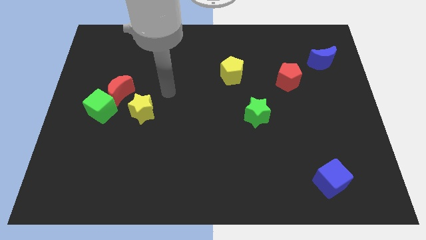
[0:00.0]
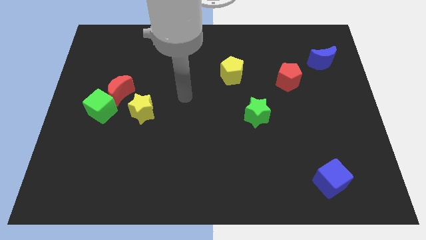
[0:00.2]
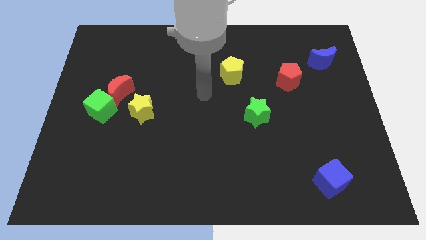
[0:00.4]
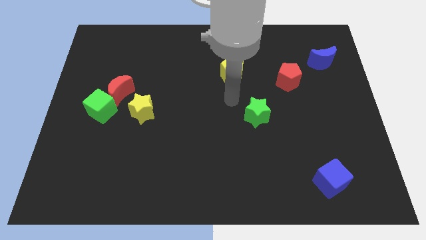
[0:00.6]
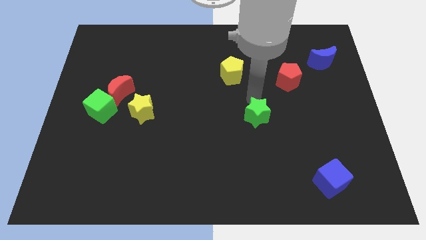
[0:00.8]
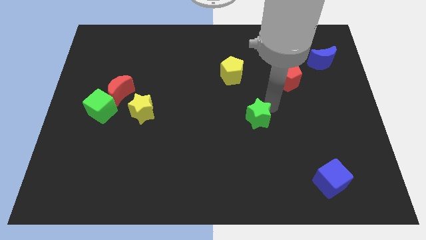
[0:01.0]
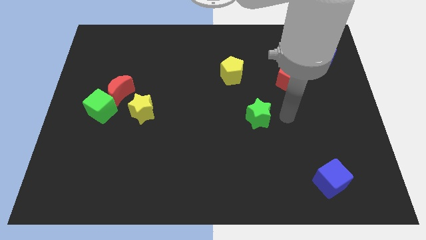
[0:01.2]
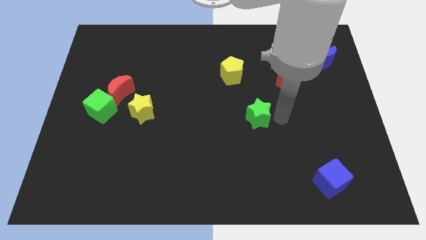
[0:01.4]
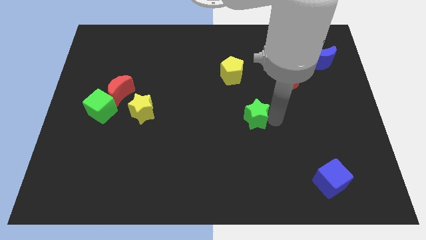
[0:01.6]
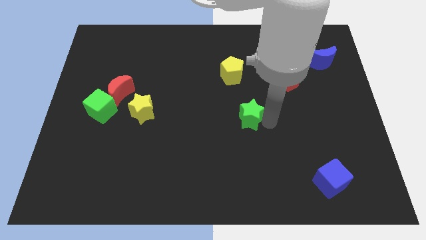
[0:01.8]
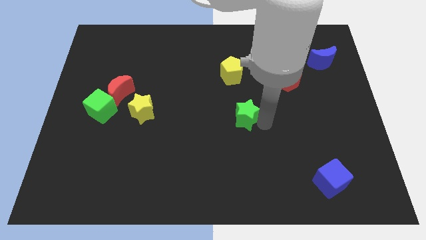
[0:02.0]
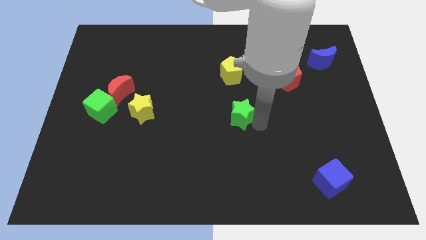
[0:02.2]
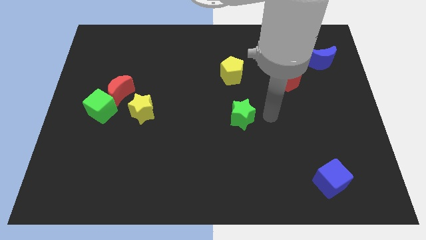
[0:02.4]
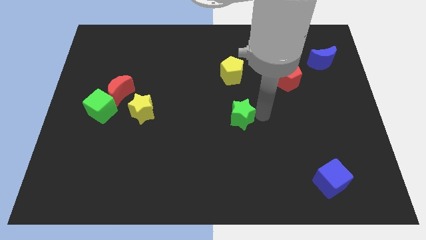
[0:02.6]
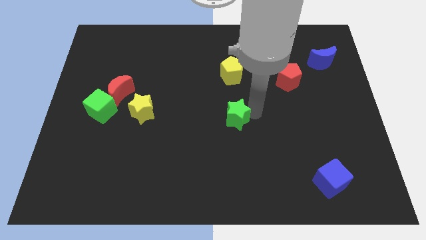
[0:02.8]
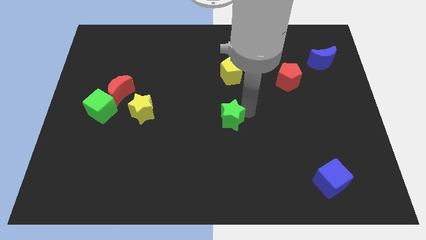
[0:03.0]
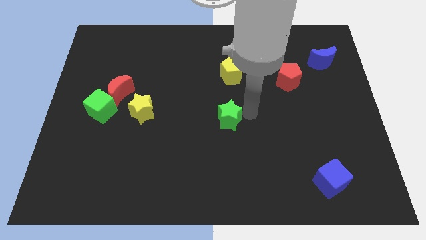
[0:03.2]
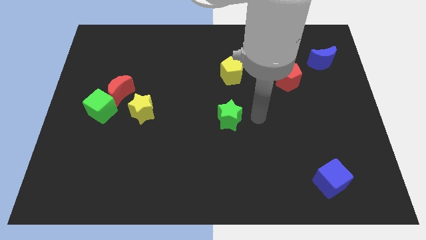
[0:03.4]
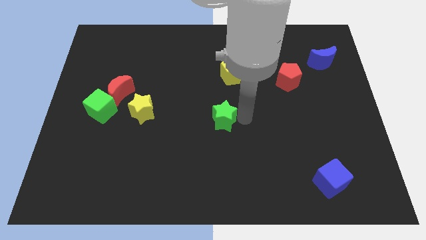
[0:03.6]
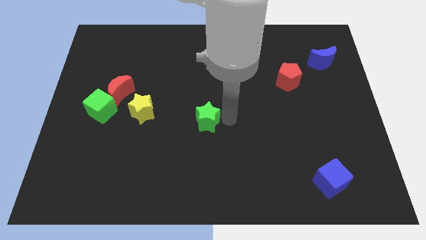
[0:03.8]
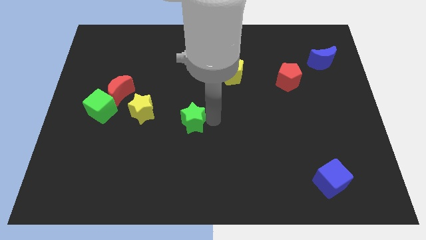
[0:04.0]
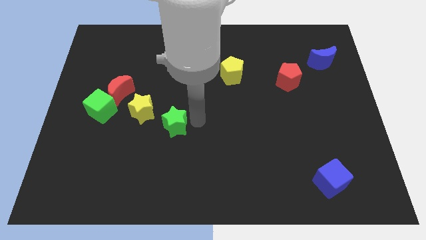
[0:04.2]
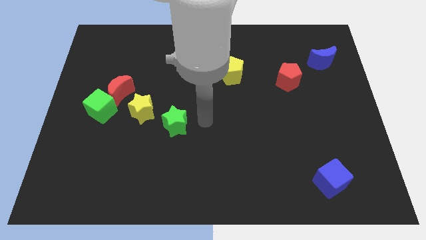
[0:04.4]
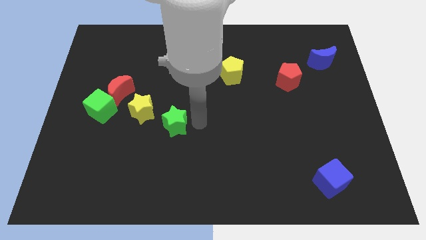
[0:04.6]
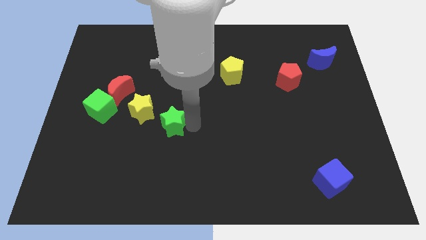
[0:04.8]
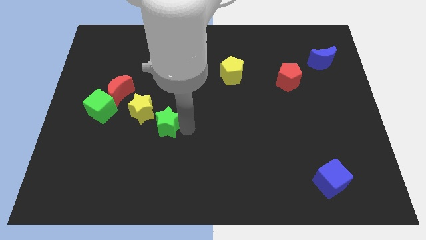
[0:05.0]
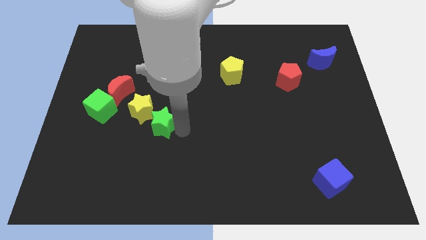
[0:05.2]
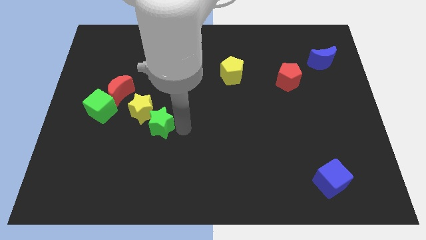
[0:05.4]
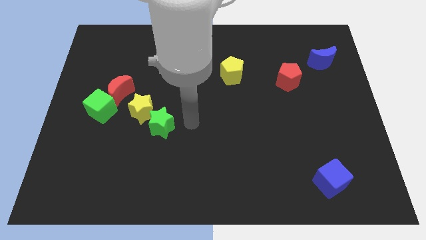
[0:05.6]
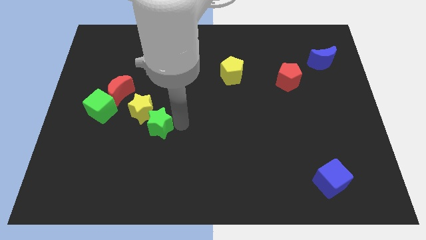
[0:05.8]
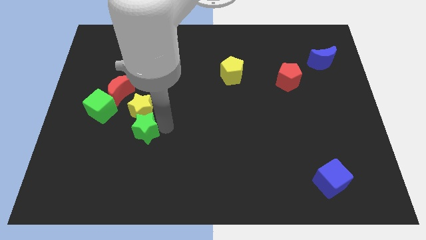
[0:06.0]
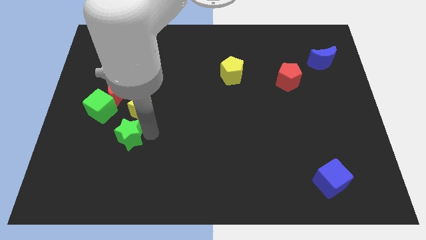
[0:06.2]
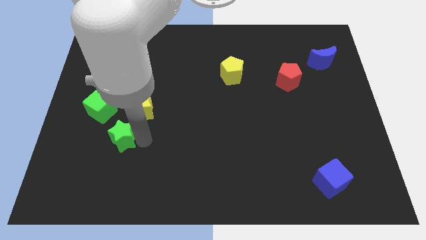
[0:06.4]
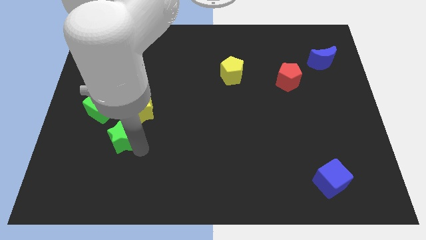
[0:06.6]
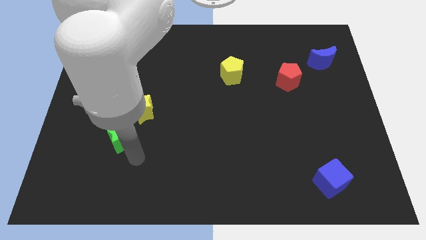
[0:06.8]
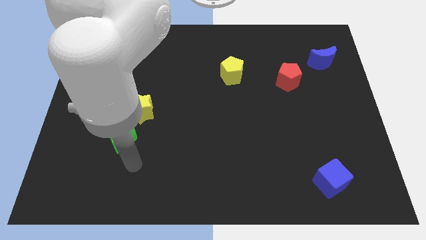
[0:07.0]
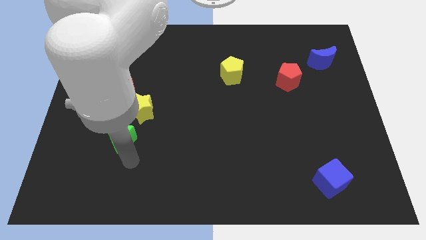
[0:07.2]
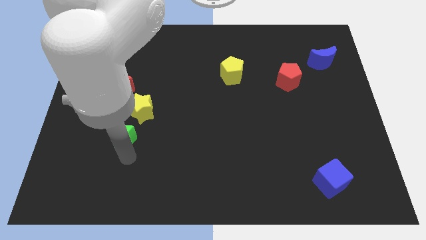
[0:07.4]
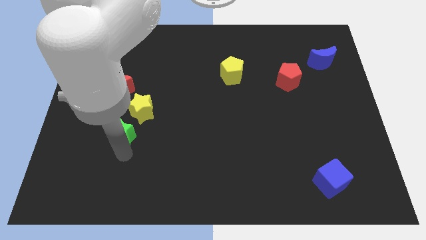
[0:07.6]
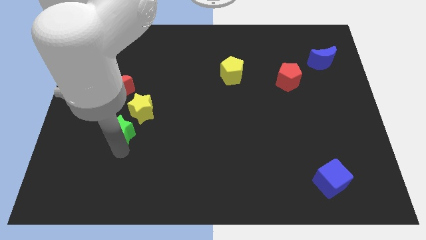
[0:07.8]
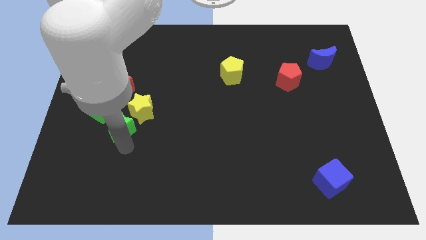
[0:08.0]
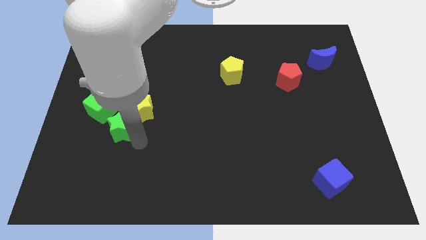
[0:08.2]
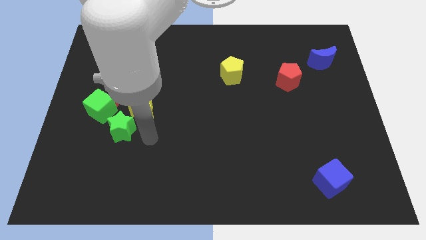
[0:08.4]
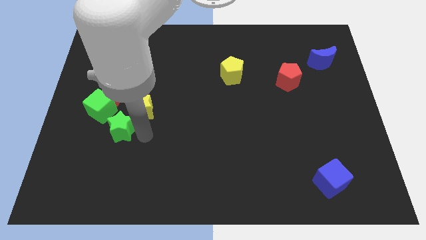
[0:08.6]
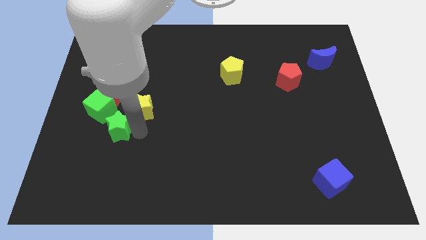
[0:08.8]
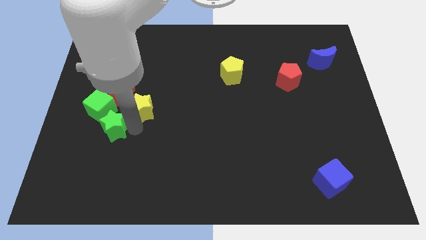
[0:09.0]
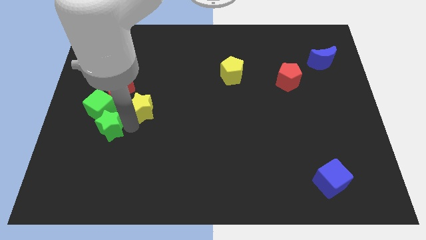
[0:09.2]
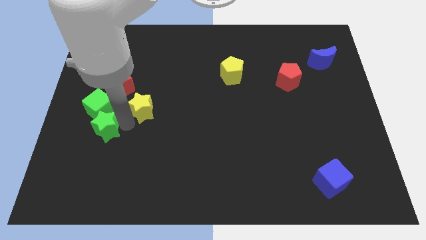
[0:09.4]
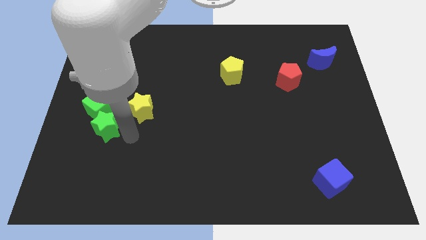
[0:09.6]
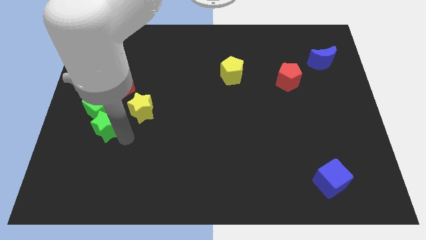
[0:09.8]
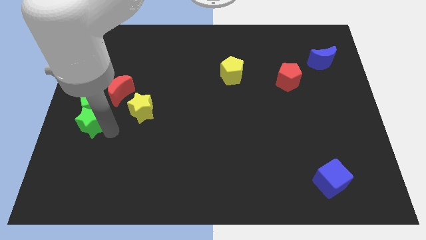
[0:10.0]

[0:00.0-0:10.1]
put the green star to the left side of the board

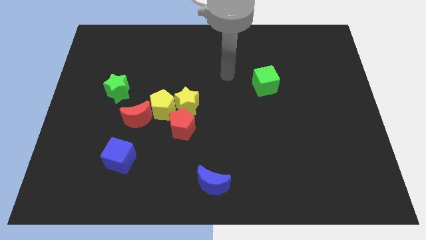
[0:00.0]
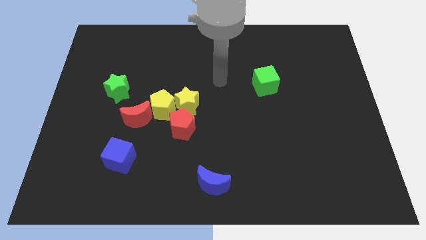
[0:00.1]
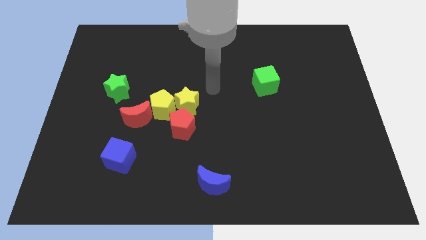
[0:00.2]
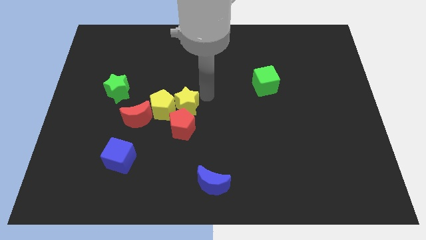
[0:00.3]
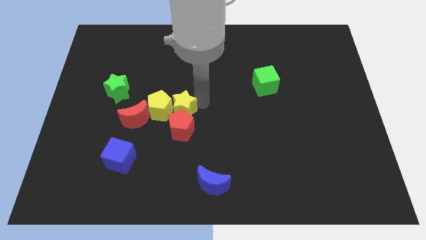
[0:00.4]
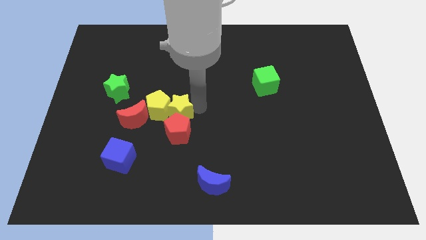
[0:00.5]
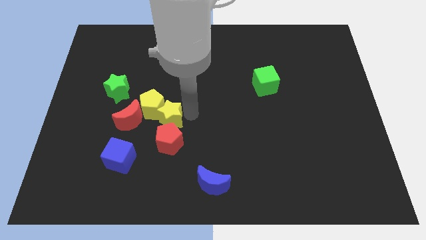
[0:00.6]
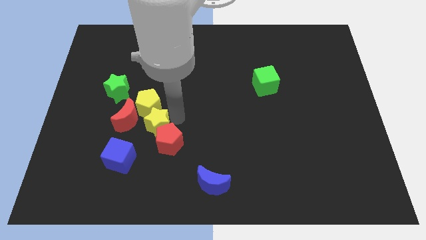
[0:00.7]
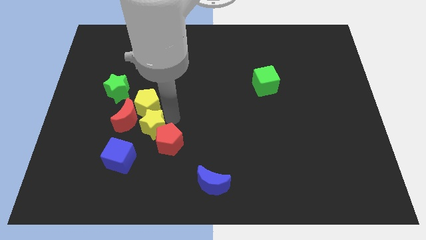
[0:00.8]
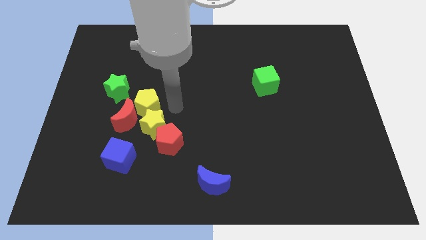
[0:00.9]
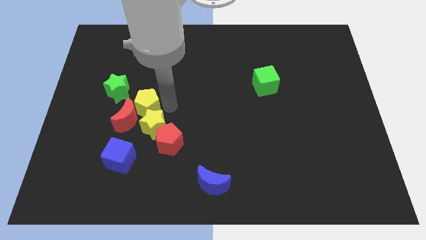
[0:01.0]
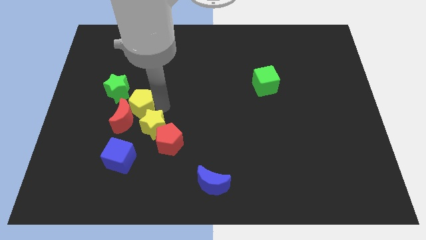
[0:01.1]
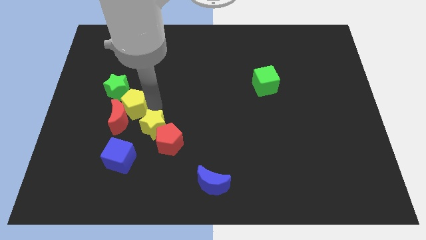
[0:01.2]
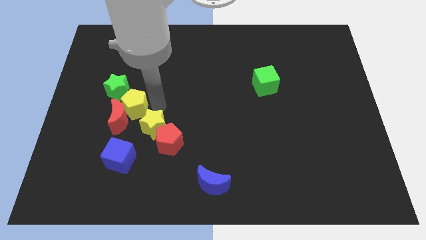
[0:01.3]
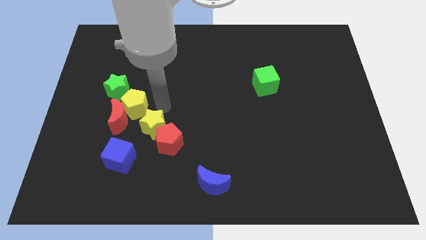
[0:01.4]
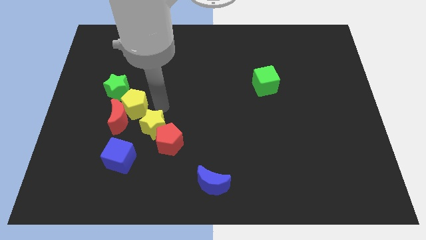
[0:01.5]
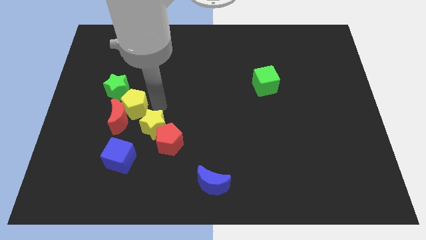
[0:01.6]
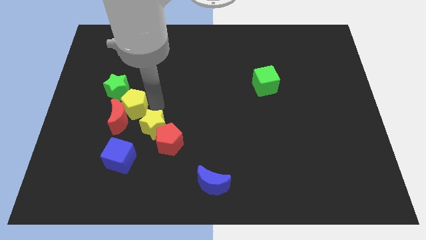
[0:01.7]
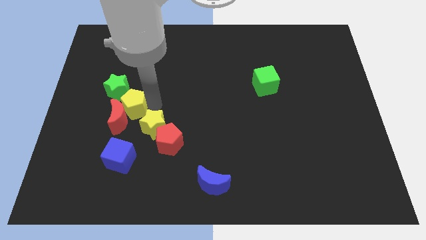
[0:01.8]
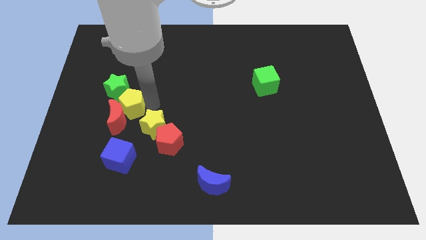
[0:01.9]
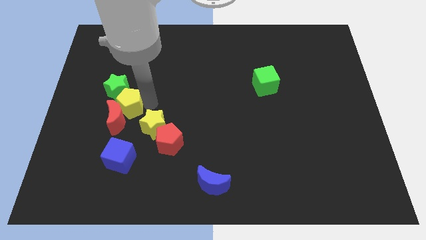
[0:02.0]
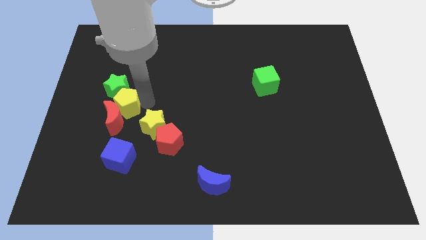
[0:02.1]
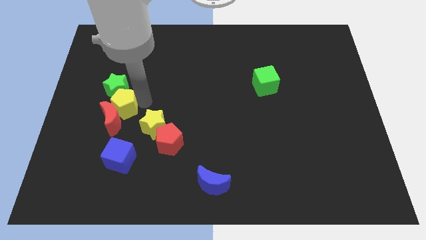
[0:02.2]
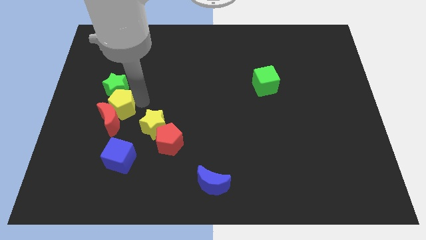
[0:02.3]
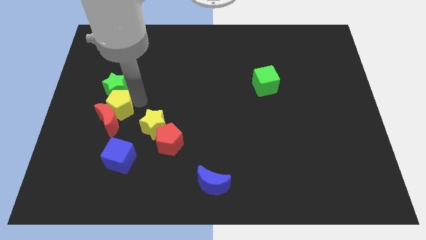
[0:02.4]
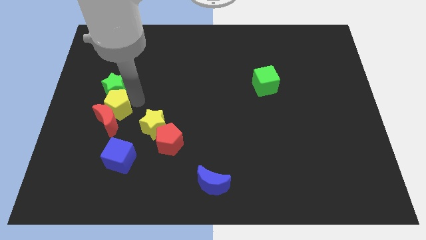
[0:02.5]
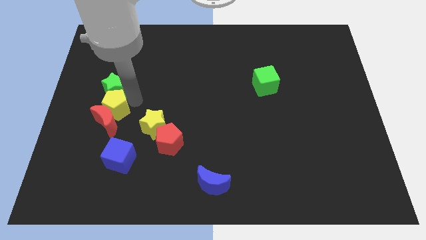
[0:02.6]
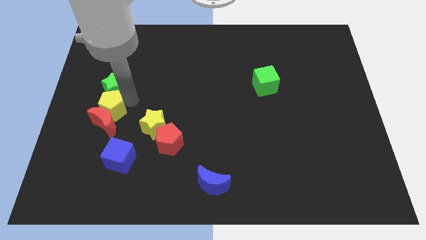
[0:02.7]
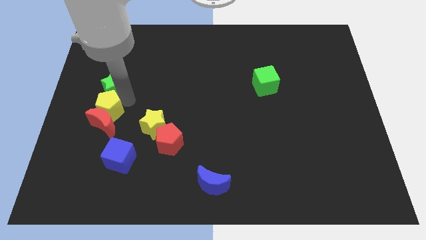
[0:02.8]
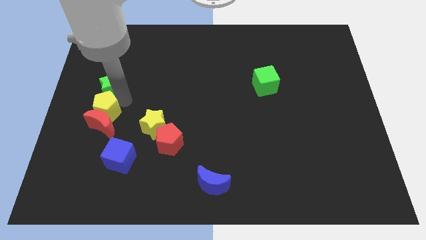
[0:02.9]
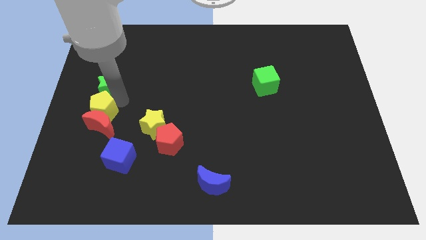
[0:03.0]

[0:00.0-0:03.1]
push the yellow pentagon to the left side
